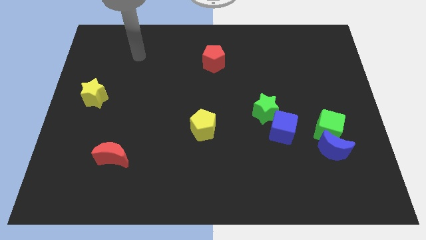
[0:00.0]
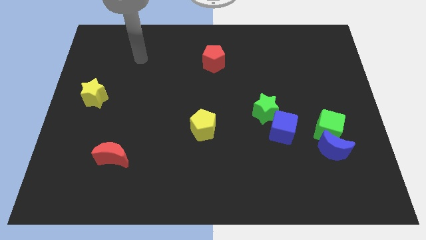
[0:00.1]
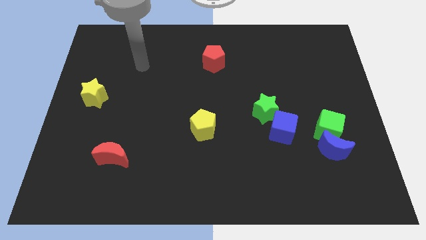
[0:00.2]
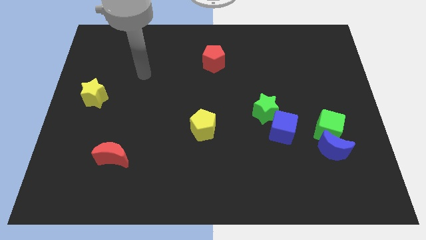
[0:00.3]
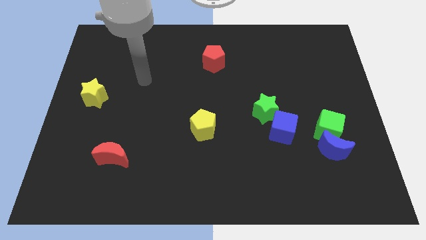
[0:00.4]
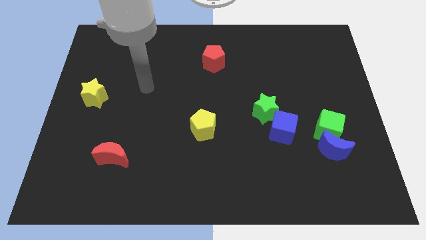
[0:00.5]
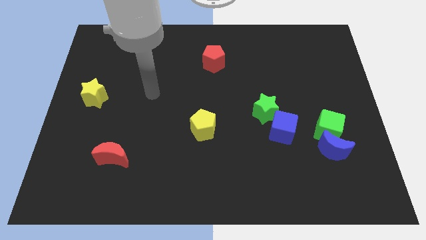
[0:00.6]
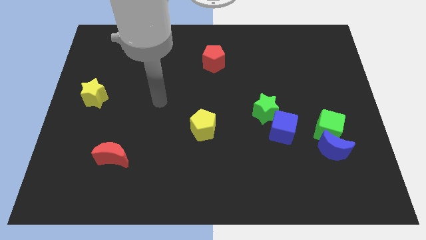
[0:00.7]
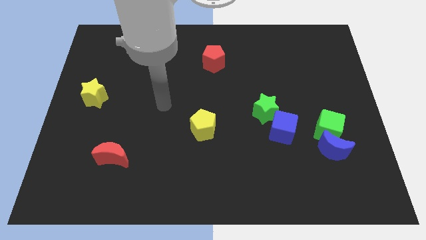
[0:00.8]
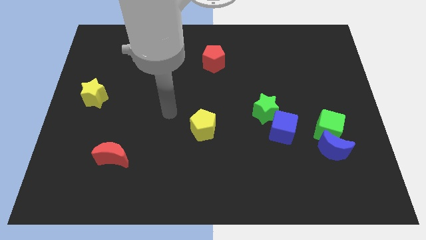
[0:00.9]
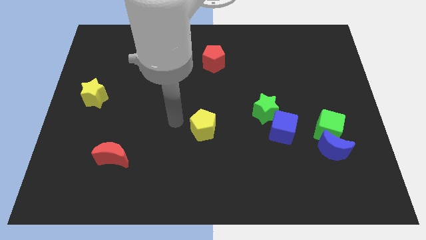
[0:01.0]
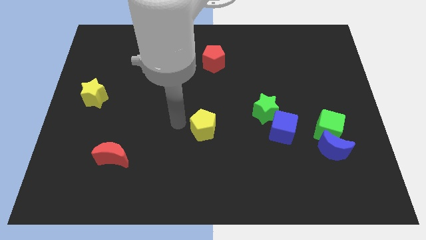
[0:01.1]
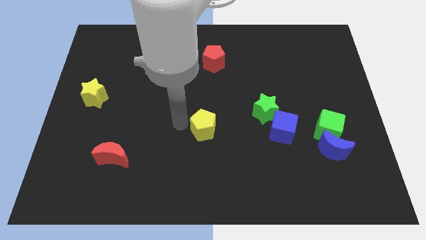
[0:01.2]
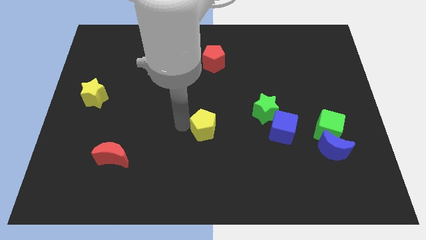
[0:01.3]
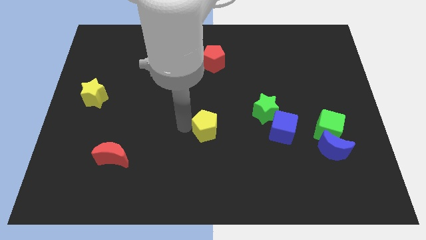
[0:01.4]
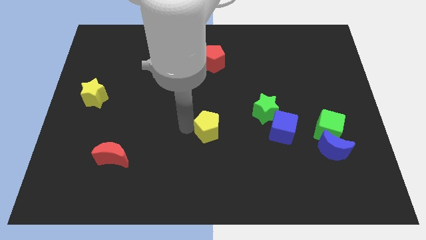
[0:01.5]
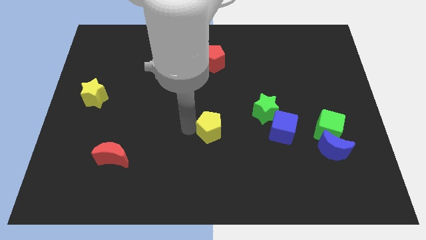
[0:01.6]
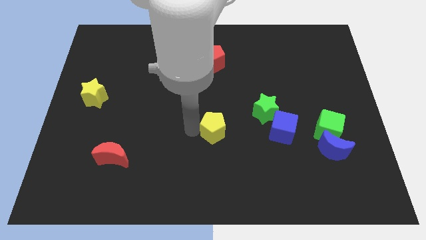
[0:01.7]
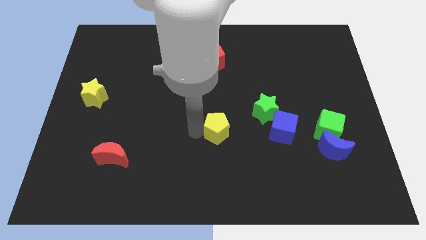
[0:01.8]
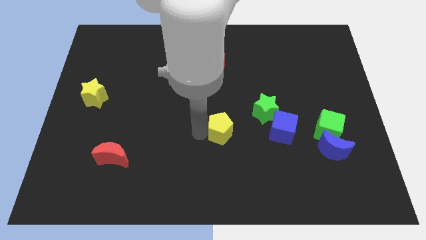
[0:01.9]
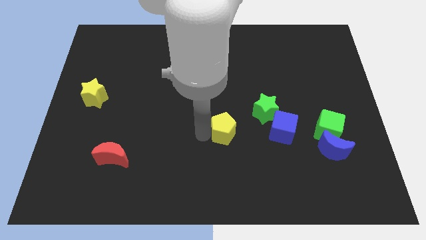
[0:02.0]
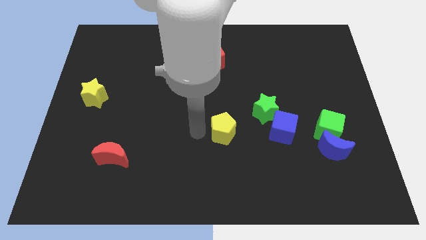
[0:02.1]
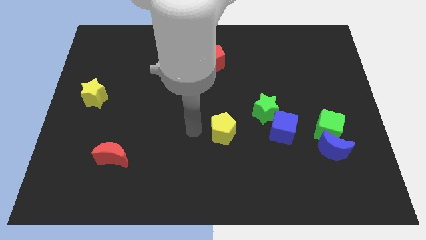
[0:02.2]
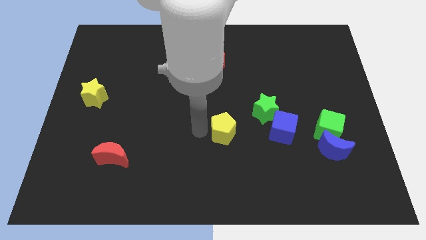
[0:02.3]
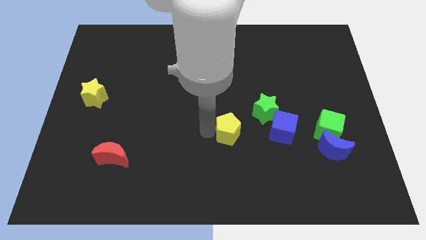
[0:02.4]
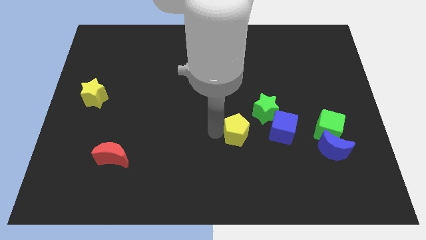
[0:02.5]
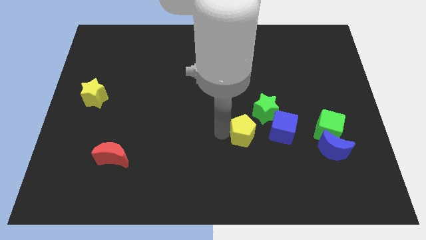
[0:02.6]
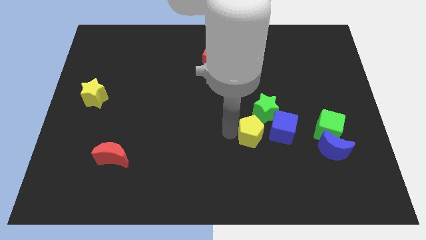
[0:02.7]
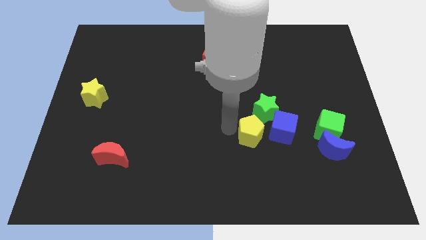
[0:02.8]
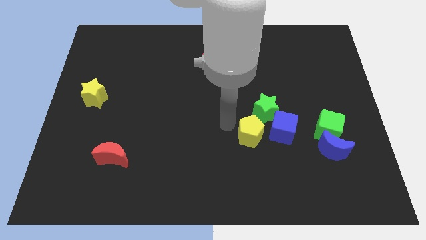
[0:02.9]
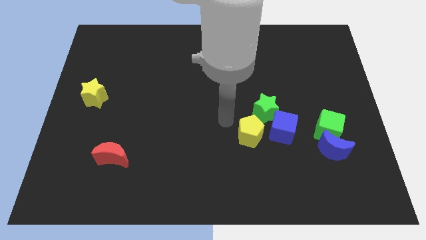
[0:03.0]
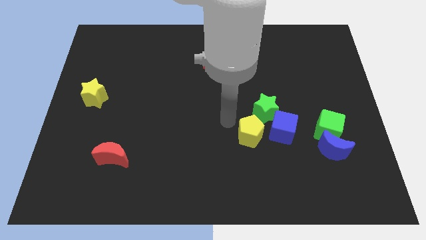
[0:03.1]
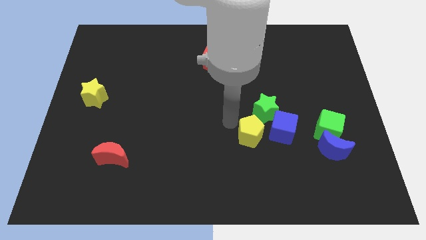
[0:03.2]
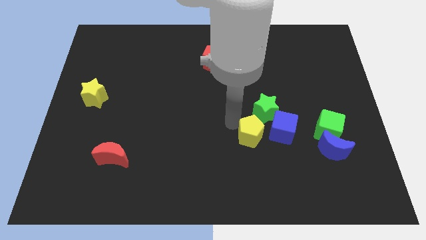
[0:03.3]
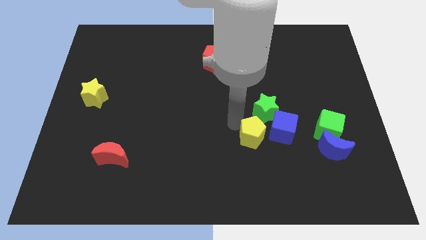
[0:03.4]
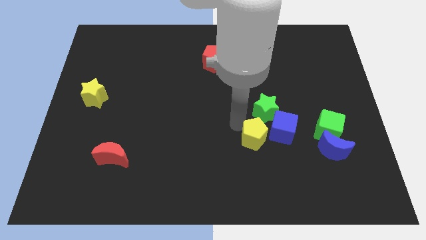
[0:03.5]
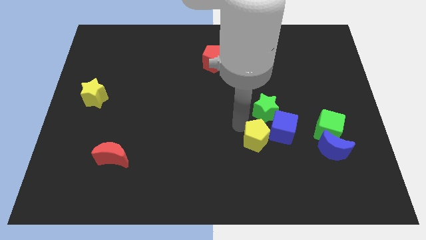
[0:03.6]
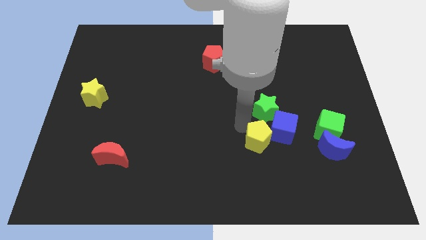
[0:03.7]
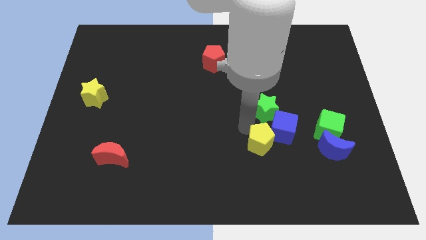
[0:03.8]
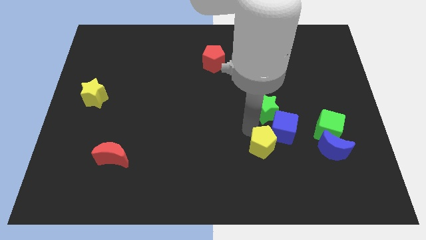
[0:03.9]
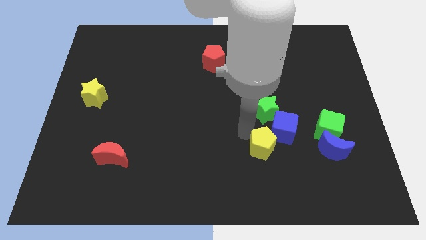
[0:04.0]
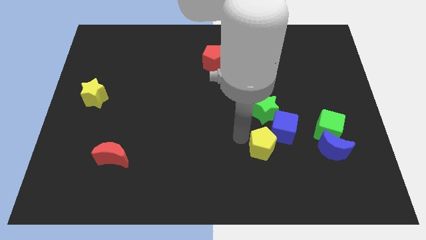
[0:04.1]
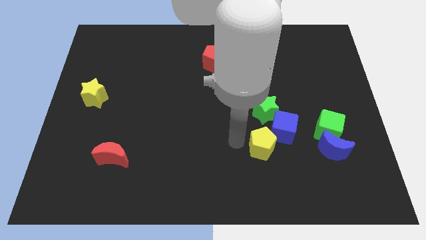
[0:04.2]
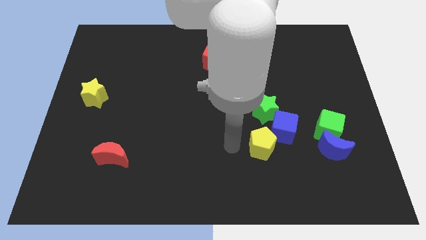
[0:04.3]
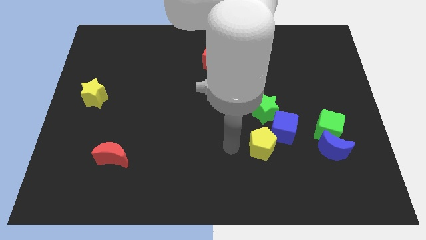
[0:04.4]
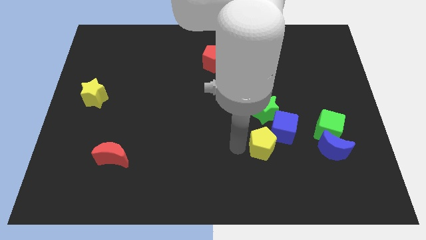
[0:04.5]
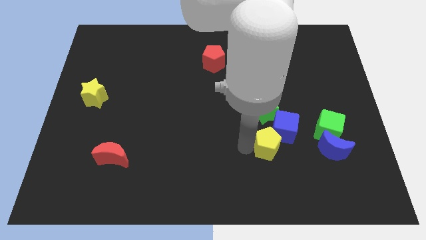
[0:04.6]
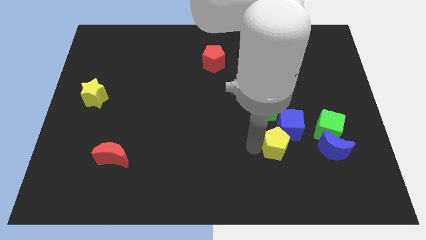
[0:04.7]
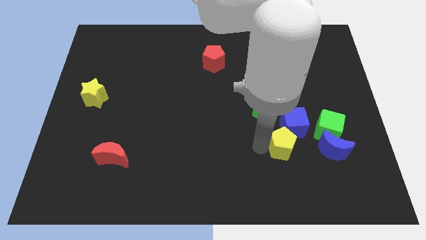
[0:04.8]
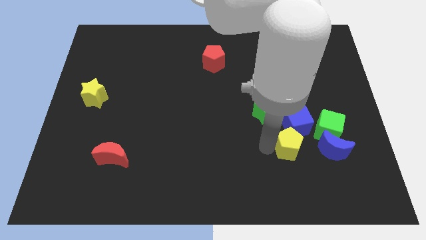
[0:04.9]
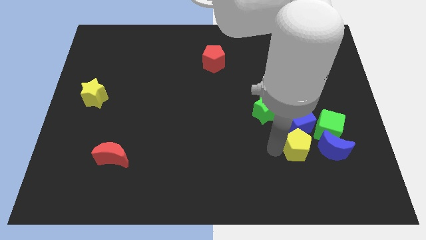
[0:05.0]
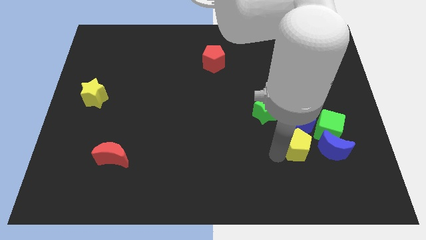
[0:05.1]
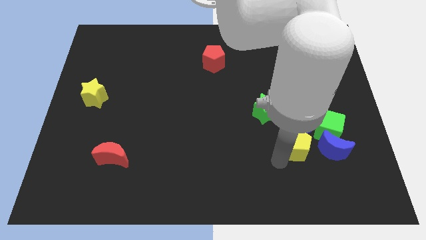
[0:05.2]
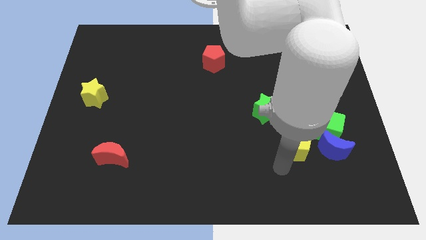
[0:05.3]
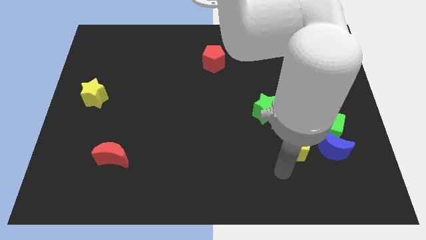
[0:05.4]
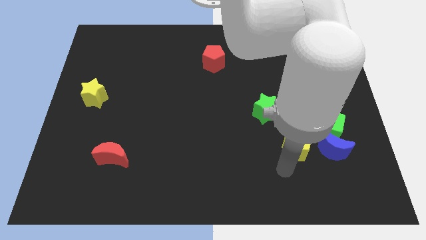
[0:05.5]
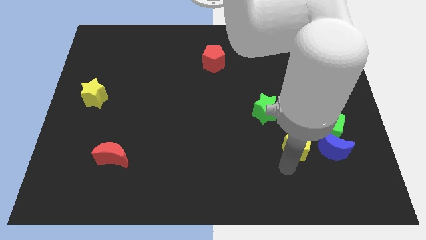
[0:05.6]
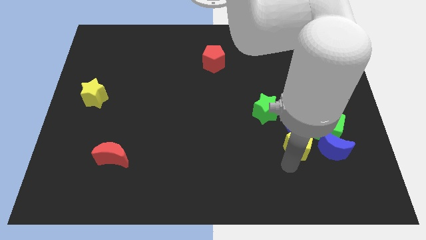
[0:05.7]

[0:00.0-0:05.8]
move the yellow pentagon to the top left of the blue moon

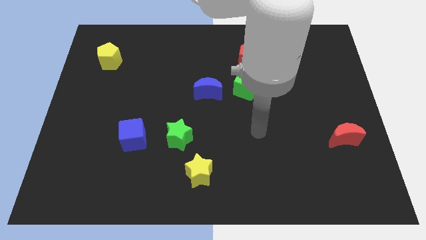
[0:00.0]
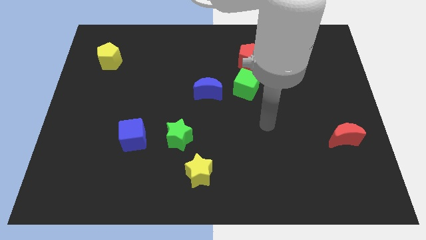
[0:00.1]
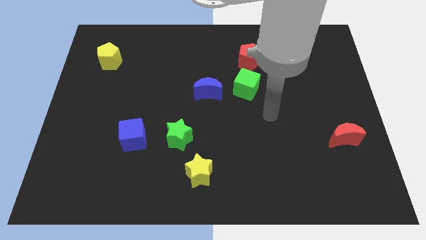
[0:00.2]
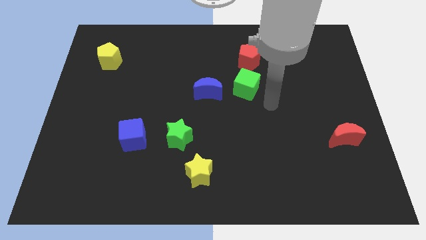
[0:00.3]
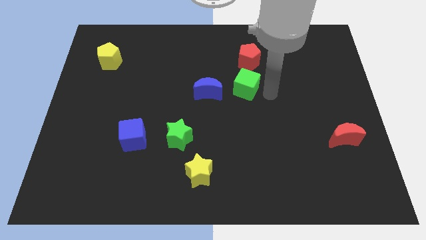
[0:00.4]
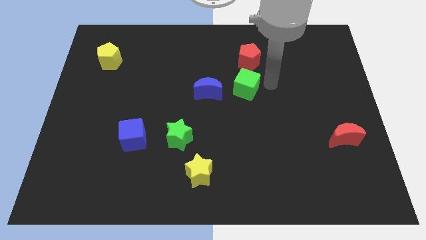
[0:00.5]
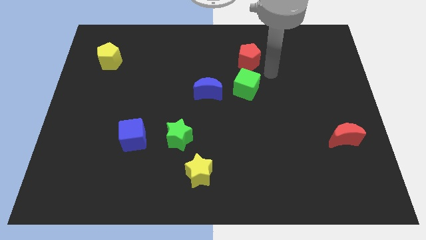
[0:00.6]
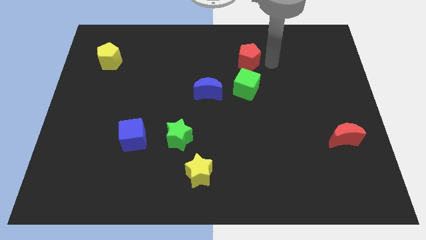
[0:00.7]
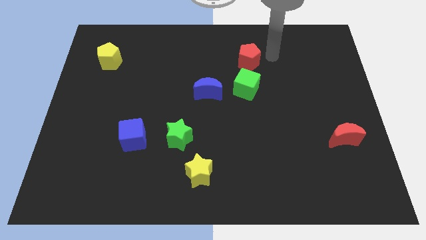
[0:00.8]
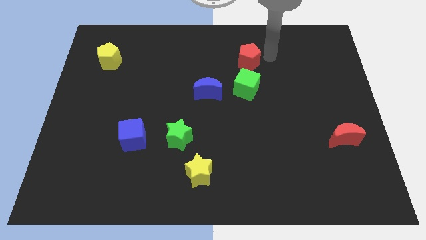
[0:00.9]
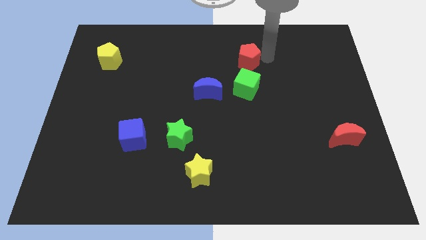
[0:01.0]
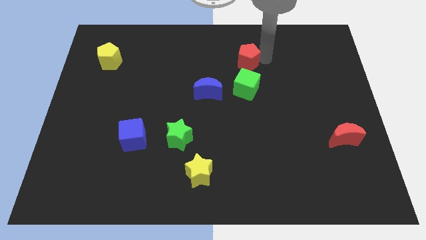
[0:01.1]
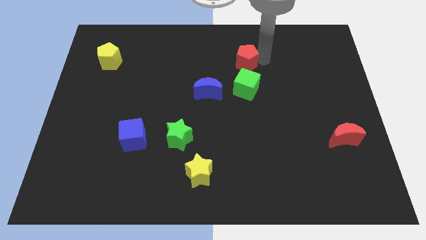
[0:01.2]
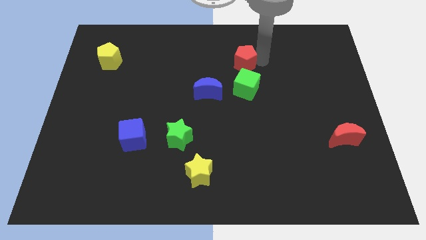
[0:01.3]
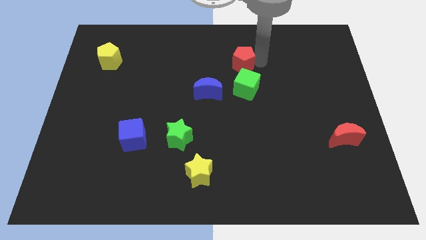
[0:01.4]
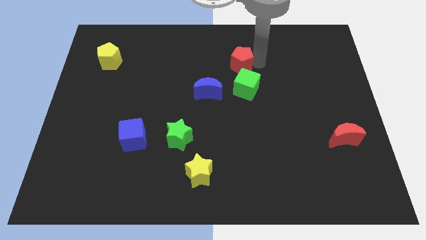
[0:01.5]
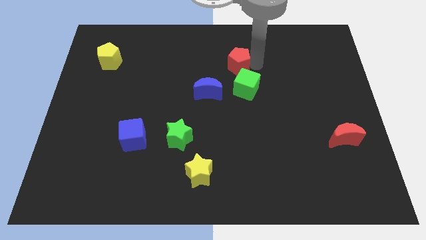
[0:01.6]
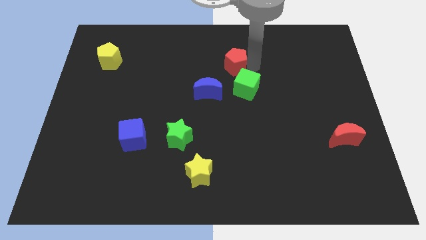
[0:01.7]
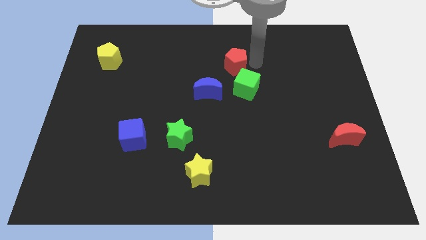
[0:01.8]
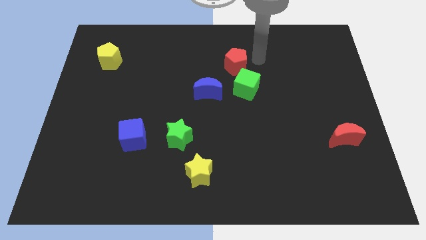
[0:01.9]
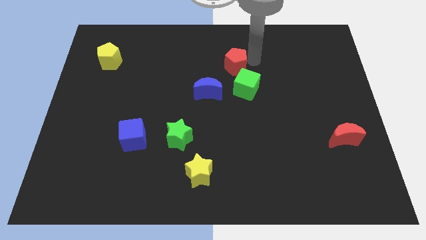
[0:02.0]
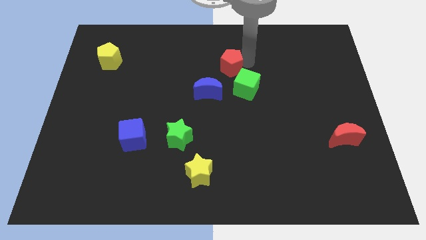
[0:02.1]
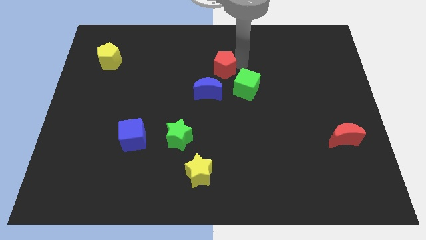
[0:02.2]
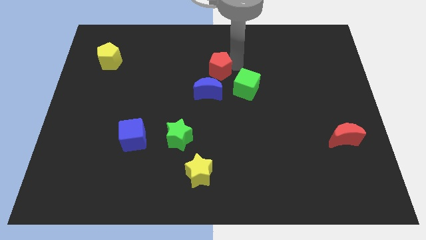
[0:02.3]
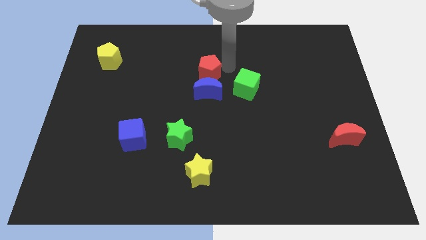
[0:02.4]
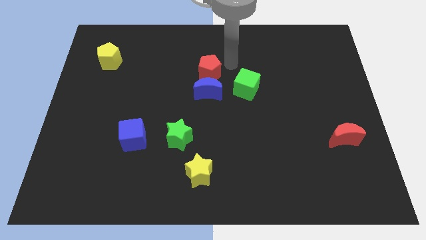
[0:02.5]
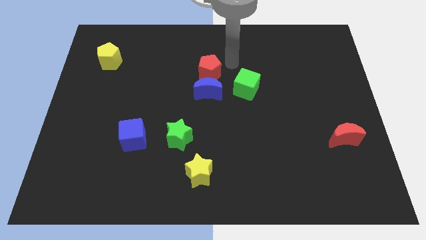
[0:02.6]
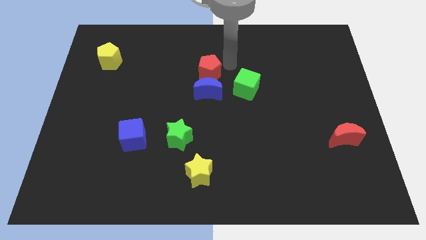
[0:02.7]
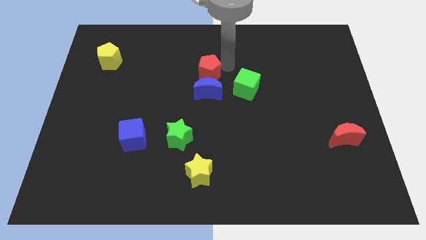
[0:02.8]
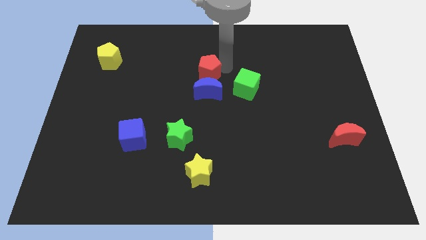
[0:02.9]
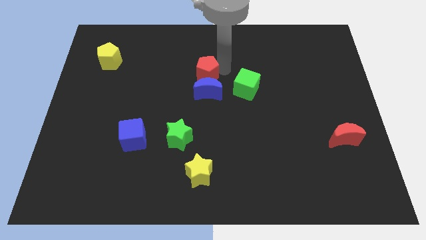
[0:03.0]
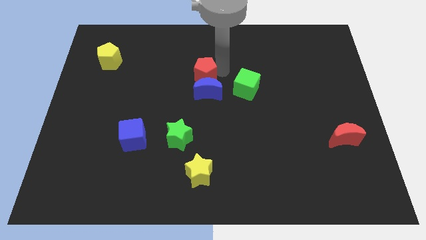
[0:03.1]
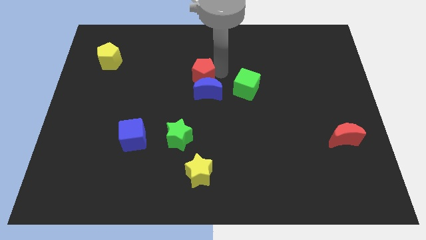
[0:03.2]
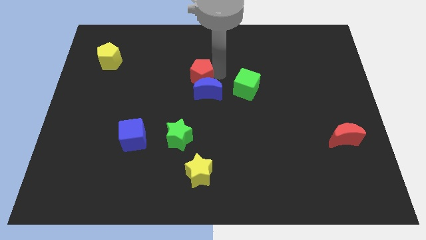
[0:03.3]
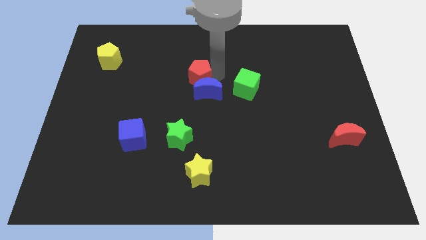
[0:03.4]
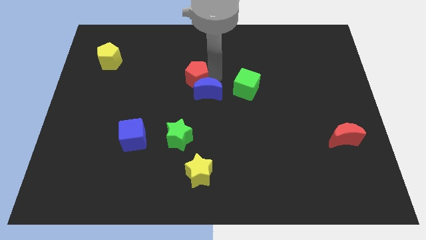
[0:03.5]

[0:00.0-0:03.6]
move the red pentagon to the left side of the blue moon
